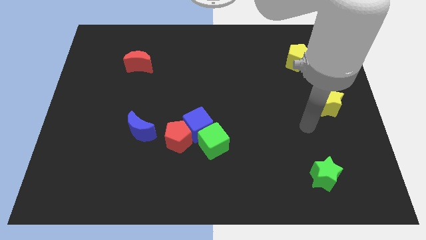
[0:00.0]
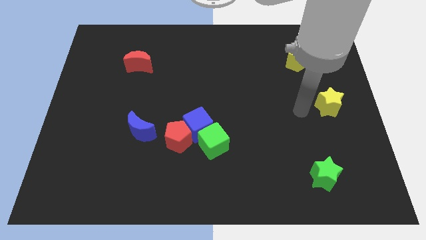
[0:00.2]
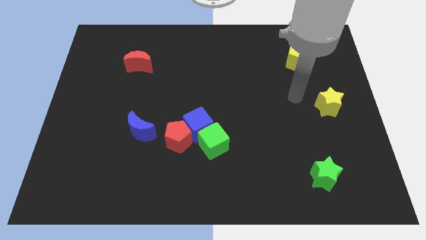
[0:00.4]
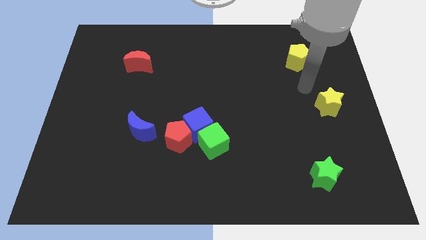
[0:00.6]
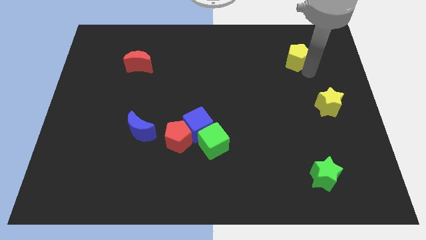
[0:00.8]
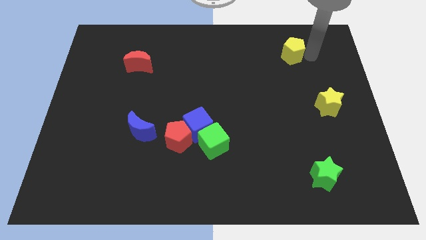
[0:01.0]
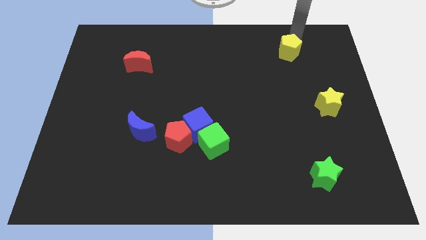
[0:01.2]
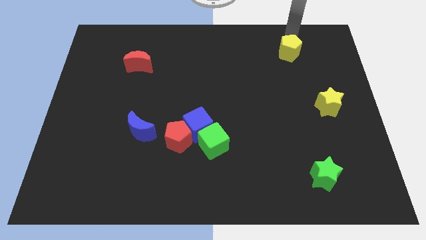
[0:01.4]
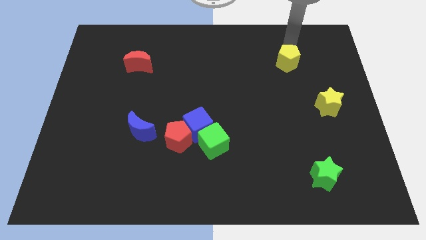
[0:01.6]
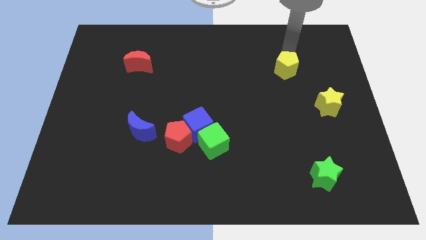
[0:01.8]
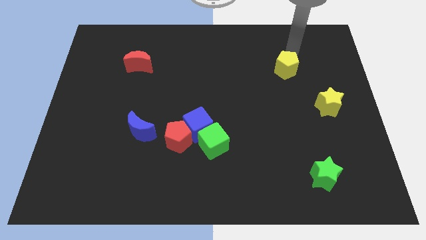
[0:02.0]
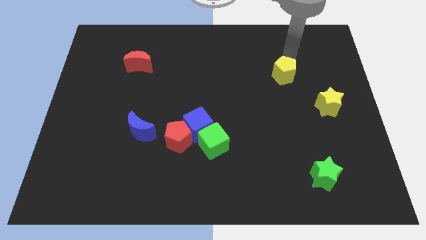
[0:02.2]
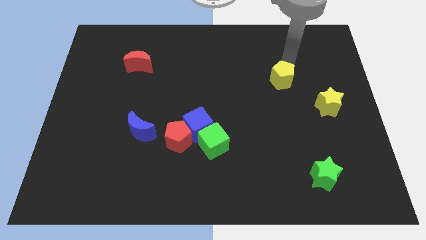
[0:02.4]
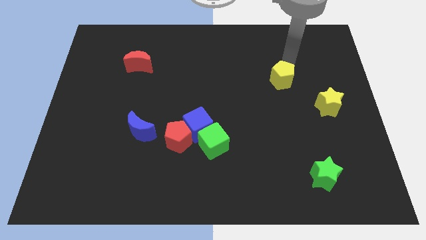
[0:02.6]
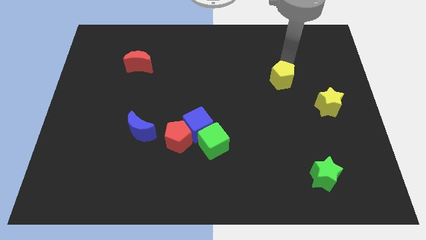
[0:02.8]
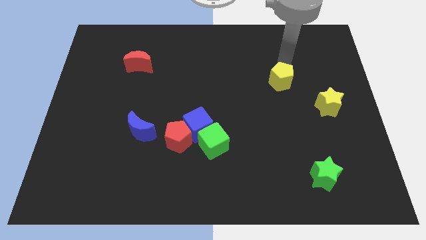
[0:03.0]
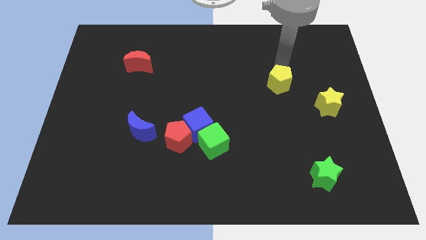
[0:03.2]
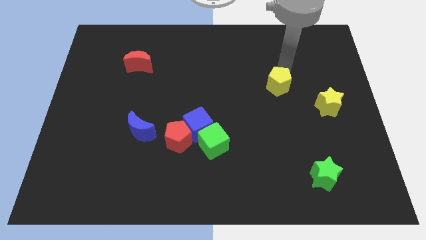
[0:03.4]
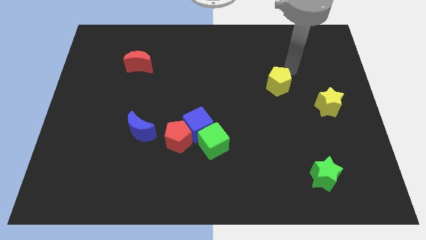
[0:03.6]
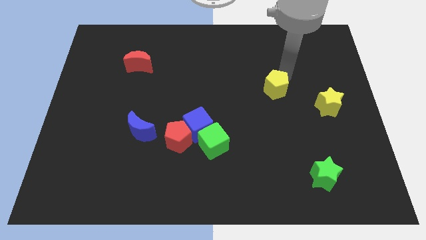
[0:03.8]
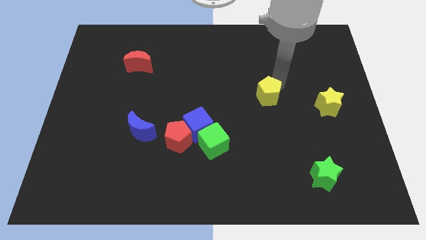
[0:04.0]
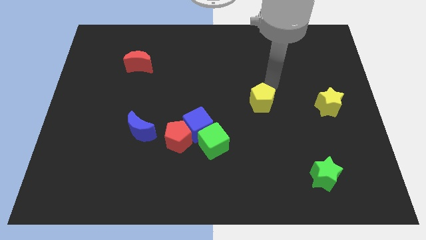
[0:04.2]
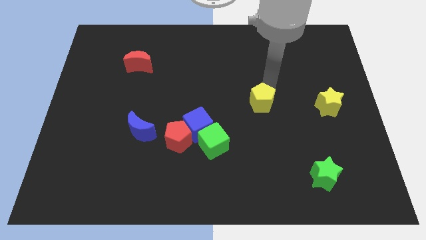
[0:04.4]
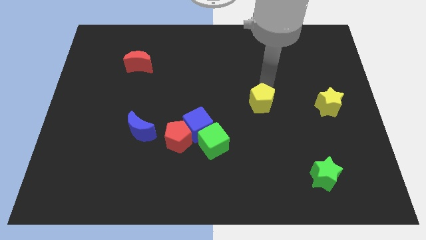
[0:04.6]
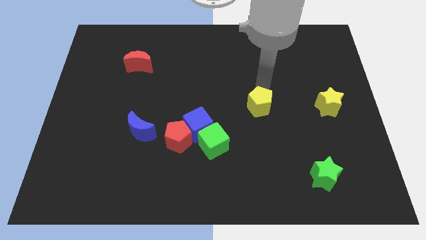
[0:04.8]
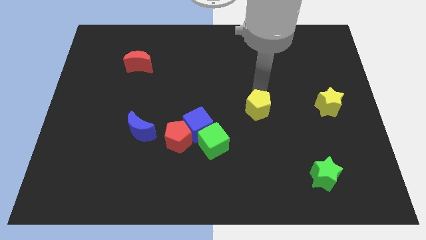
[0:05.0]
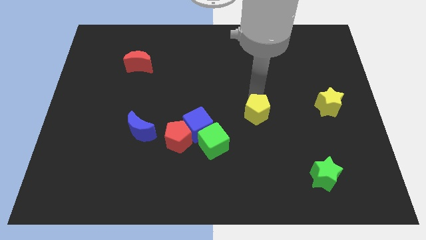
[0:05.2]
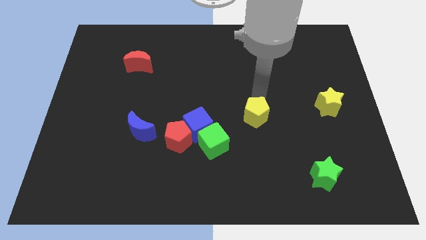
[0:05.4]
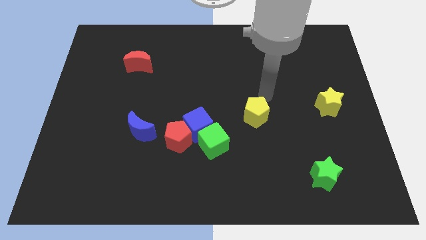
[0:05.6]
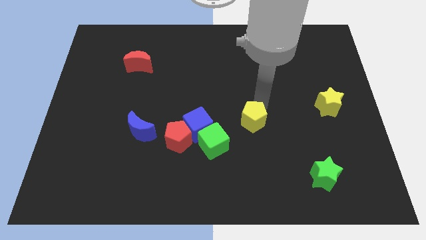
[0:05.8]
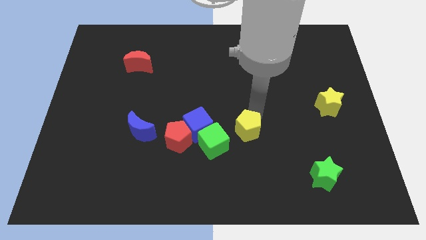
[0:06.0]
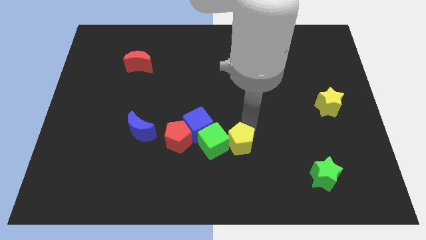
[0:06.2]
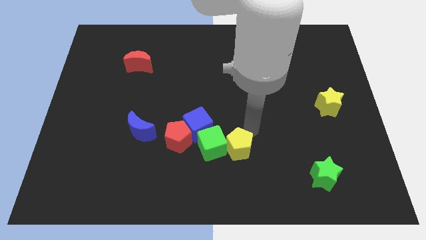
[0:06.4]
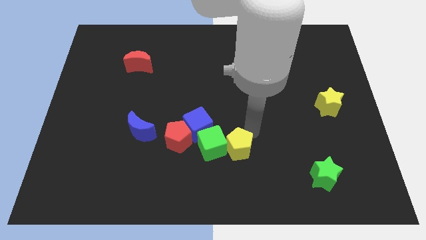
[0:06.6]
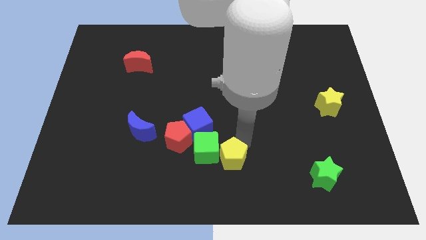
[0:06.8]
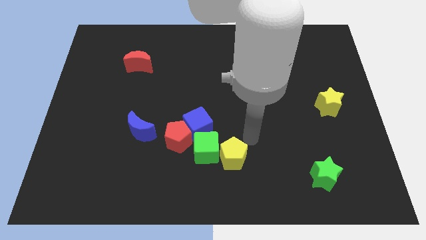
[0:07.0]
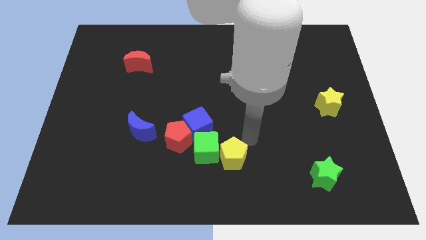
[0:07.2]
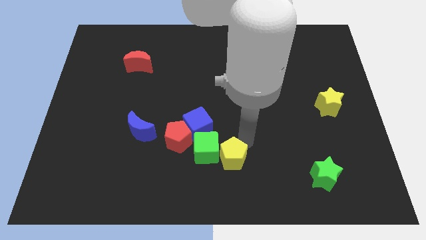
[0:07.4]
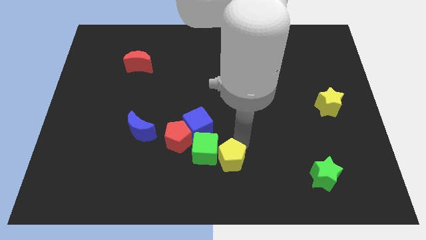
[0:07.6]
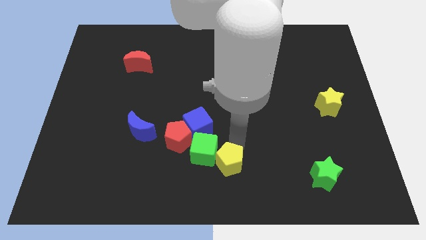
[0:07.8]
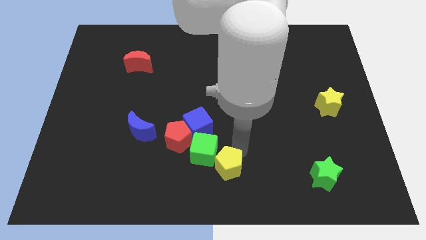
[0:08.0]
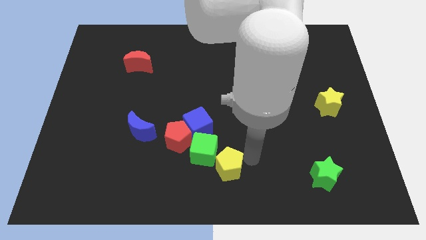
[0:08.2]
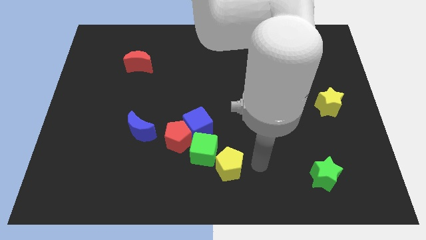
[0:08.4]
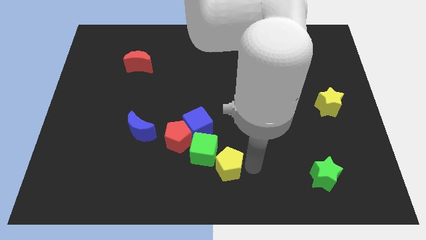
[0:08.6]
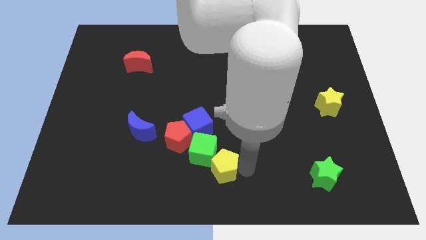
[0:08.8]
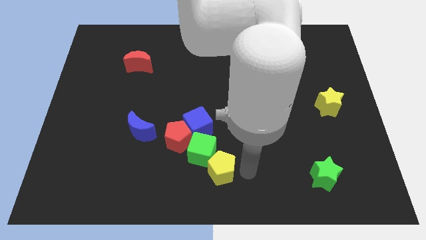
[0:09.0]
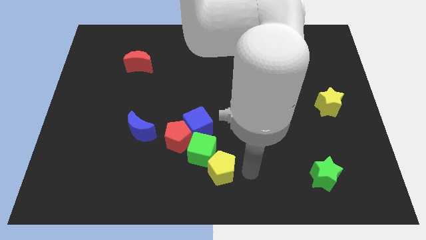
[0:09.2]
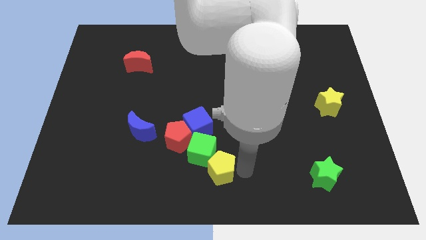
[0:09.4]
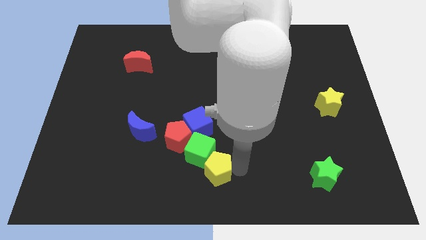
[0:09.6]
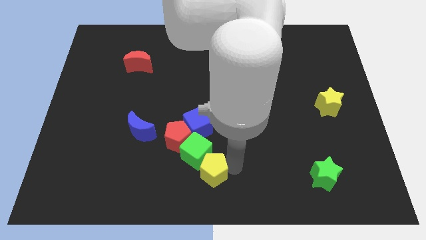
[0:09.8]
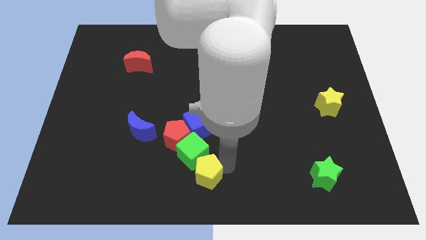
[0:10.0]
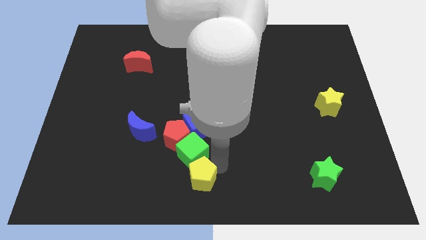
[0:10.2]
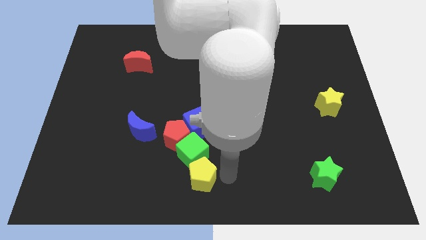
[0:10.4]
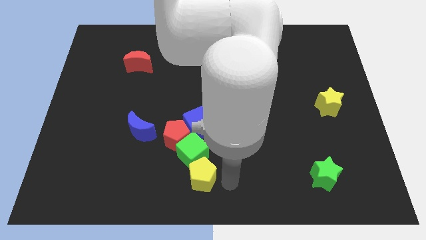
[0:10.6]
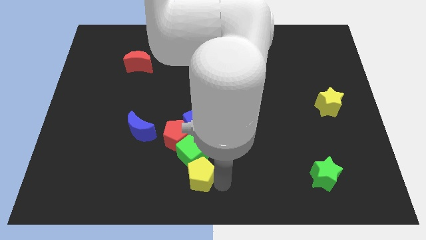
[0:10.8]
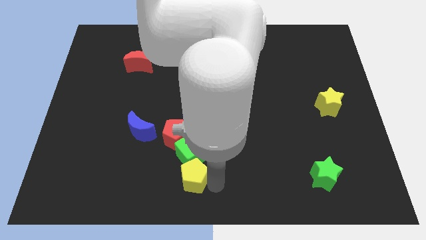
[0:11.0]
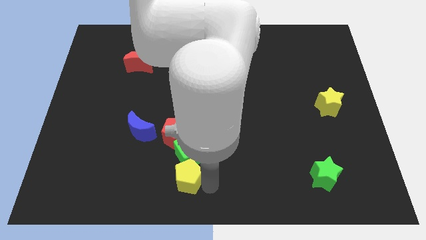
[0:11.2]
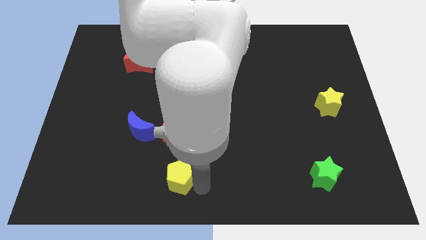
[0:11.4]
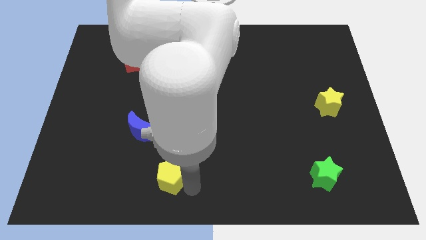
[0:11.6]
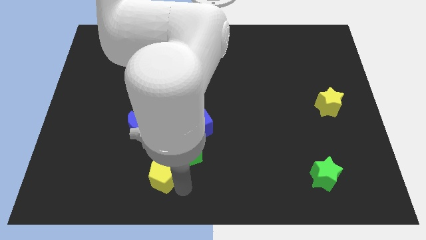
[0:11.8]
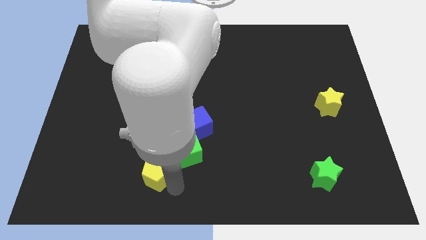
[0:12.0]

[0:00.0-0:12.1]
push the yellow pentagon below the blue moon

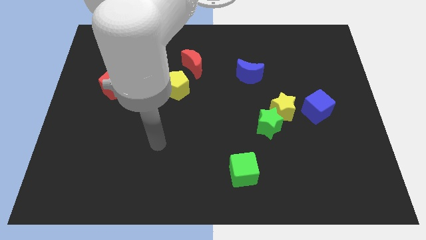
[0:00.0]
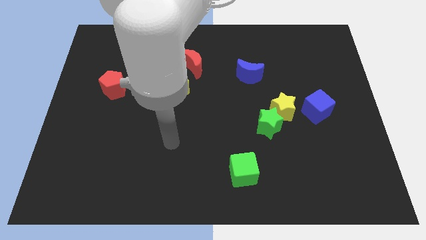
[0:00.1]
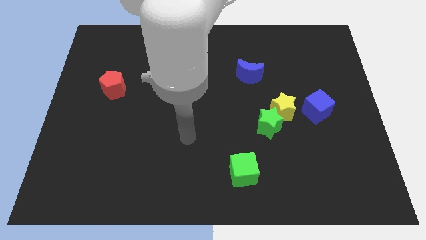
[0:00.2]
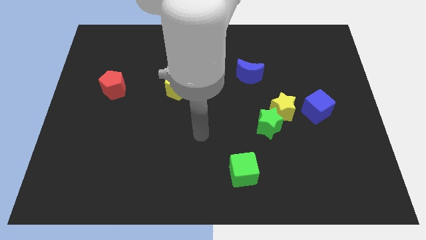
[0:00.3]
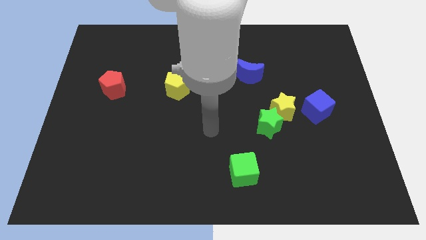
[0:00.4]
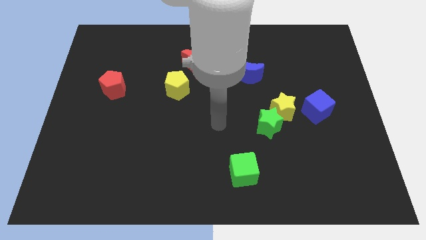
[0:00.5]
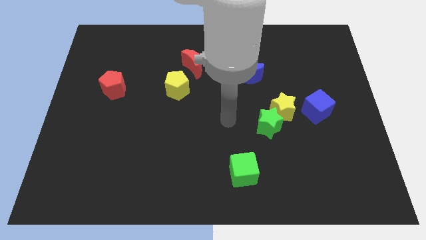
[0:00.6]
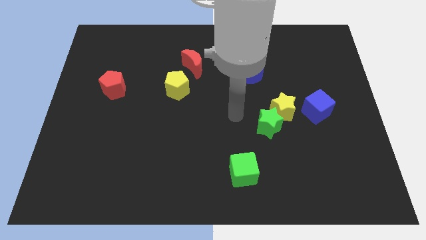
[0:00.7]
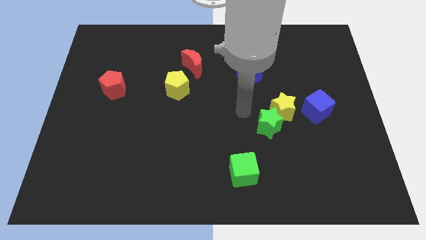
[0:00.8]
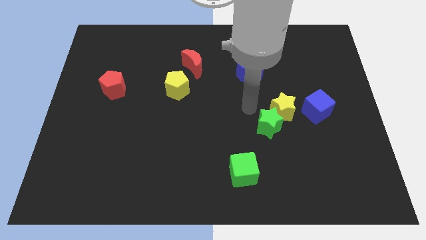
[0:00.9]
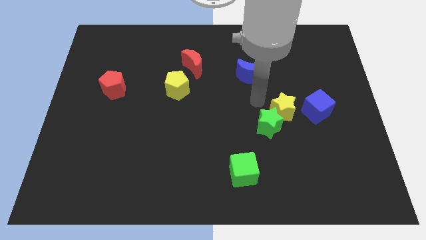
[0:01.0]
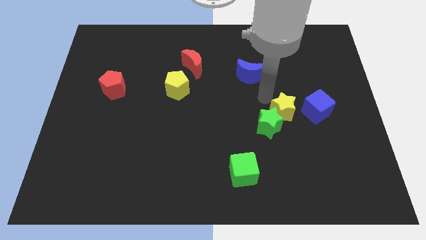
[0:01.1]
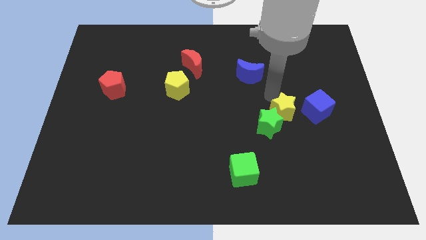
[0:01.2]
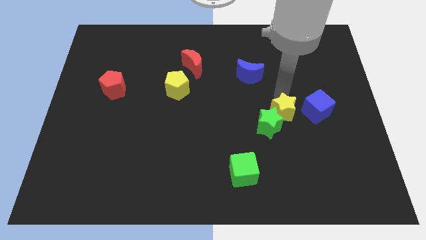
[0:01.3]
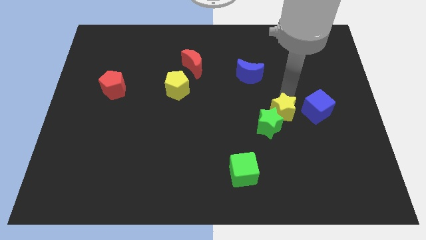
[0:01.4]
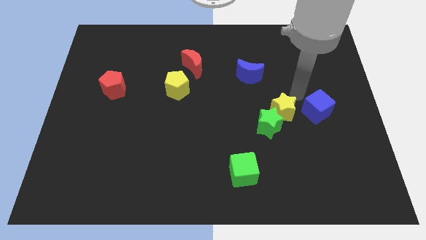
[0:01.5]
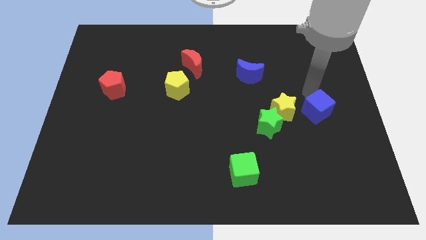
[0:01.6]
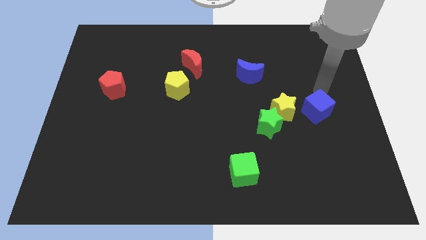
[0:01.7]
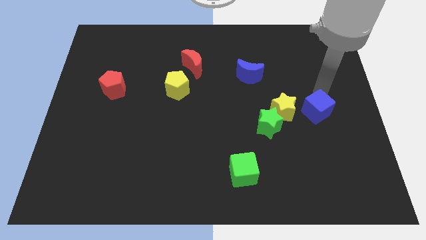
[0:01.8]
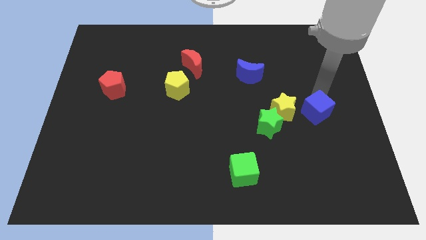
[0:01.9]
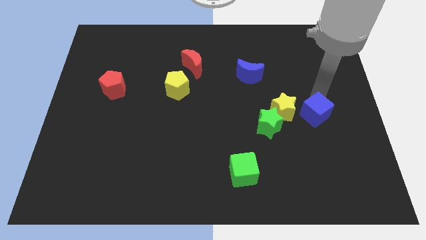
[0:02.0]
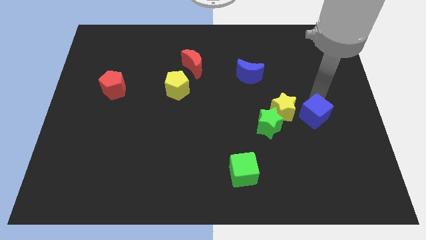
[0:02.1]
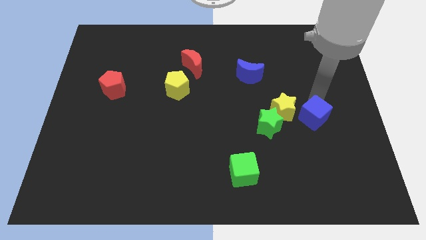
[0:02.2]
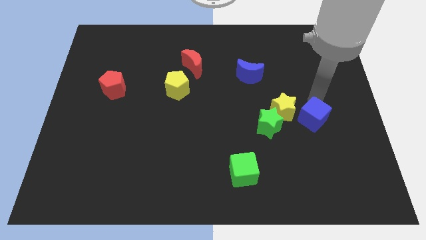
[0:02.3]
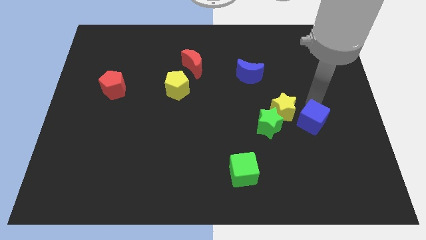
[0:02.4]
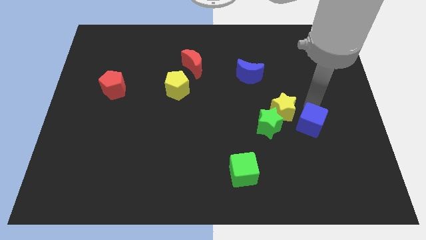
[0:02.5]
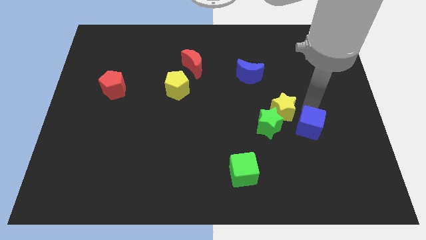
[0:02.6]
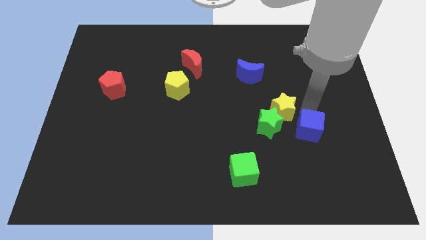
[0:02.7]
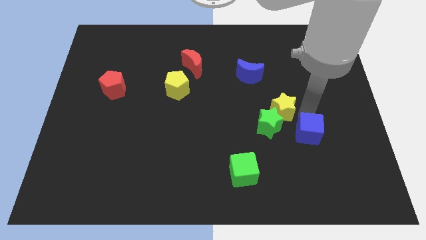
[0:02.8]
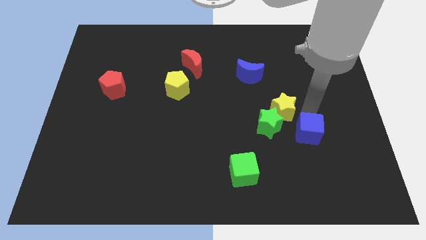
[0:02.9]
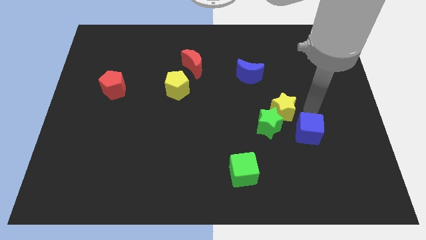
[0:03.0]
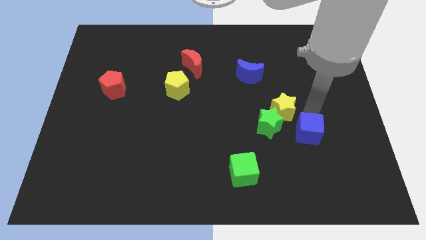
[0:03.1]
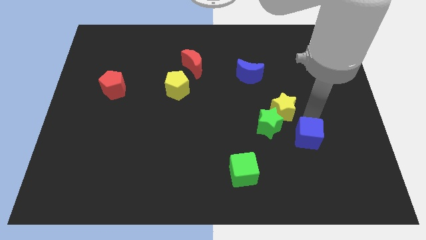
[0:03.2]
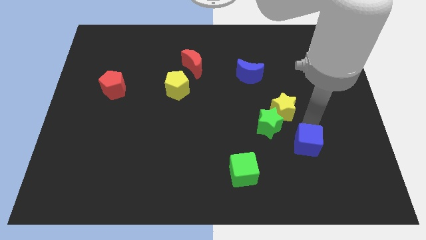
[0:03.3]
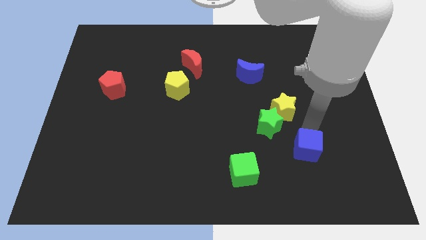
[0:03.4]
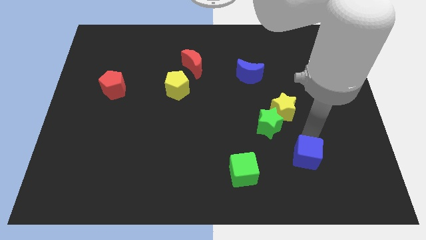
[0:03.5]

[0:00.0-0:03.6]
push the blue cube right of the green cube
